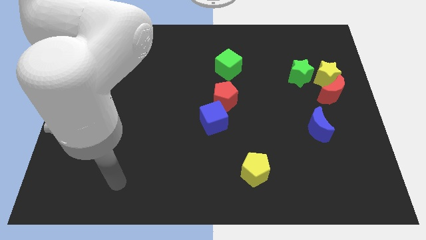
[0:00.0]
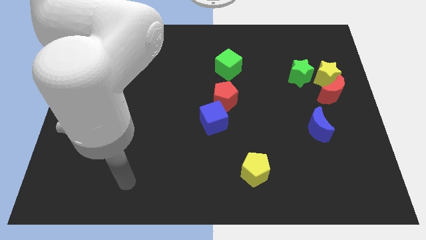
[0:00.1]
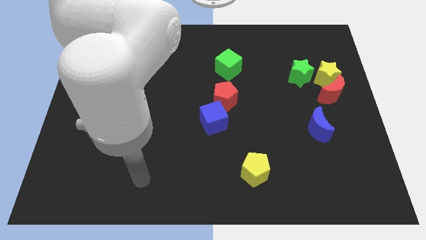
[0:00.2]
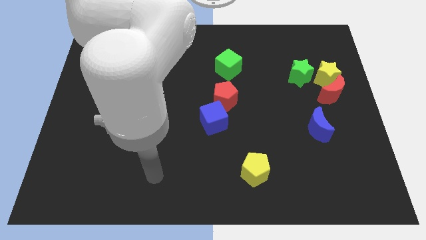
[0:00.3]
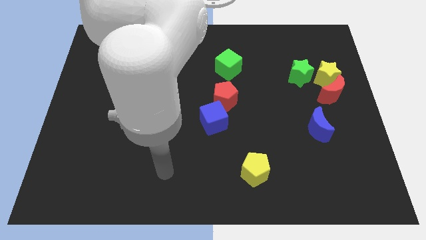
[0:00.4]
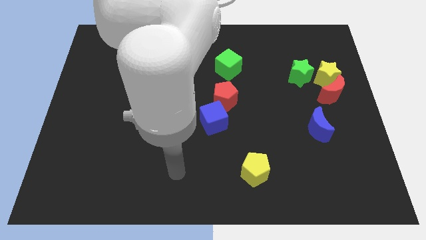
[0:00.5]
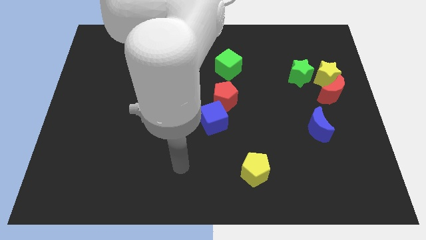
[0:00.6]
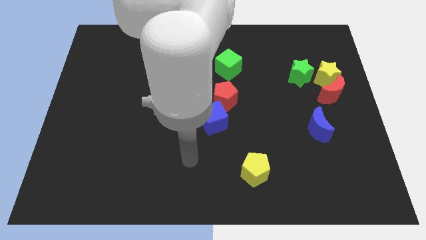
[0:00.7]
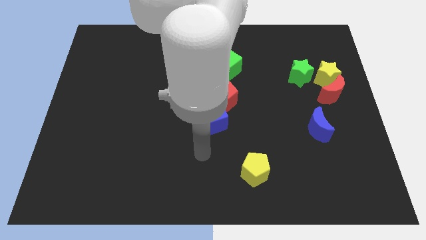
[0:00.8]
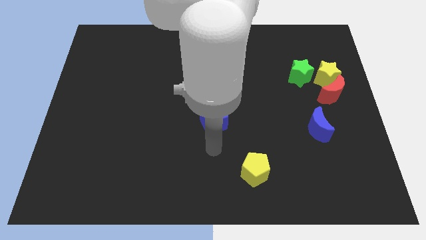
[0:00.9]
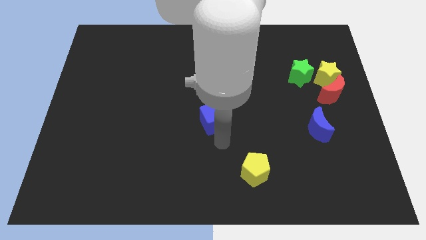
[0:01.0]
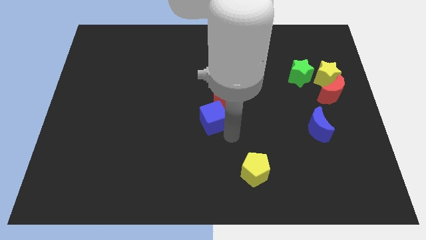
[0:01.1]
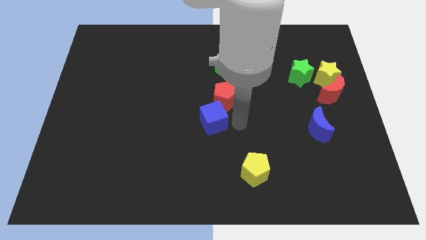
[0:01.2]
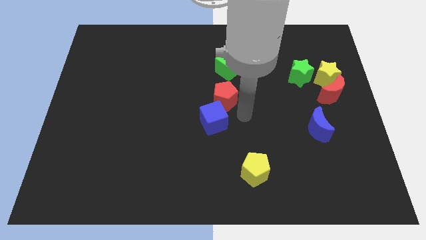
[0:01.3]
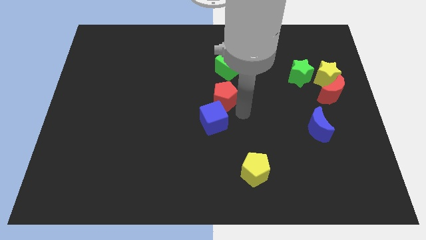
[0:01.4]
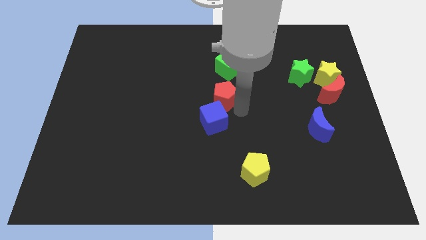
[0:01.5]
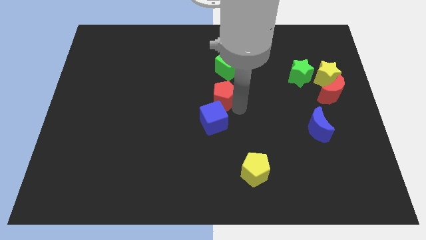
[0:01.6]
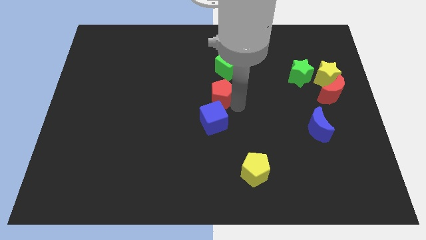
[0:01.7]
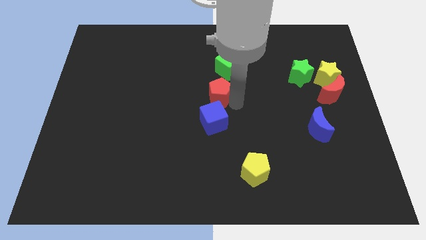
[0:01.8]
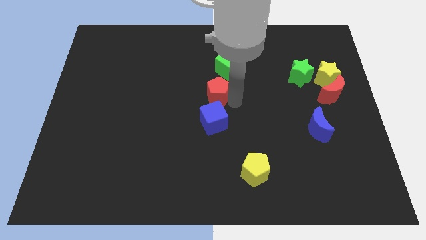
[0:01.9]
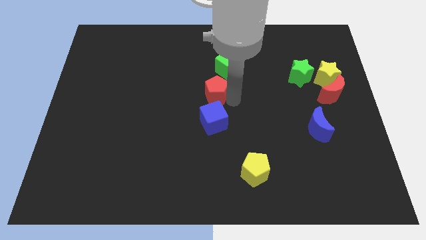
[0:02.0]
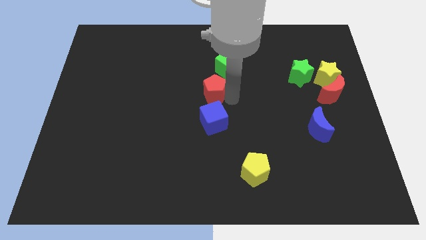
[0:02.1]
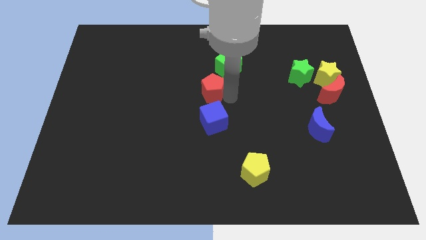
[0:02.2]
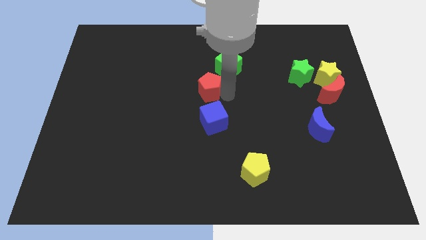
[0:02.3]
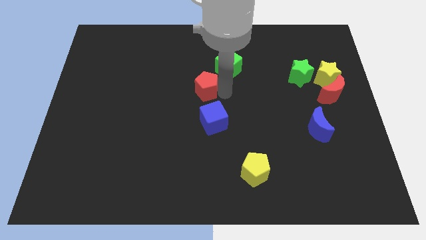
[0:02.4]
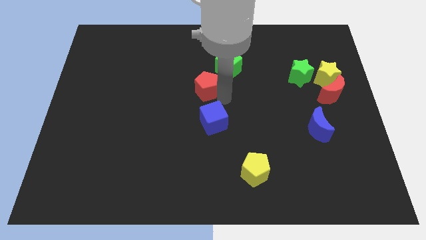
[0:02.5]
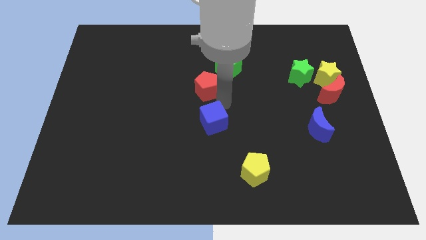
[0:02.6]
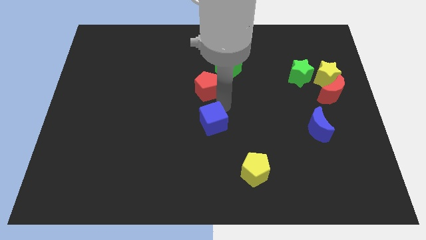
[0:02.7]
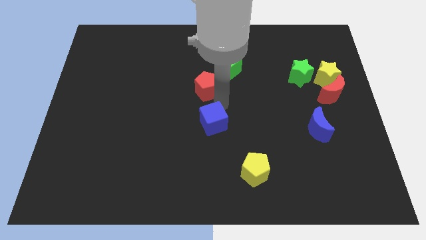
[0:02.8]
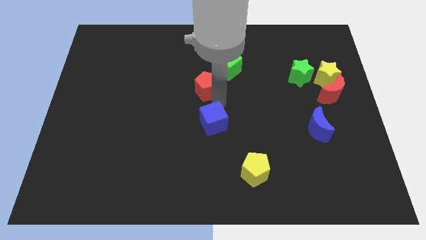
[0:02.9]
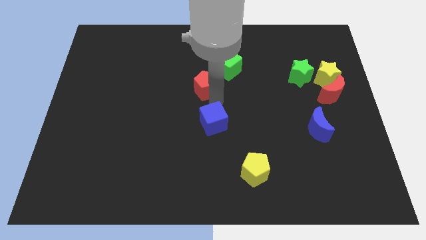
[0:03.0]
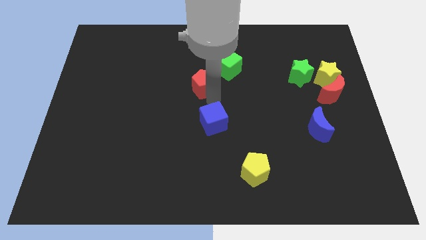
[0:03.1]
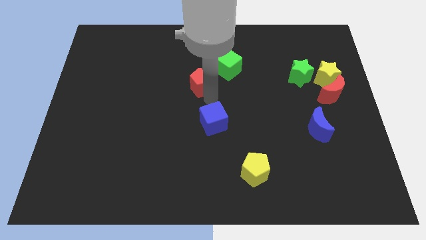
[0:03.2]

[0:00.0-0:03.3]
slide the red pentagon up and left a little

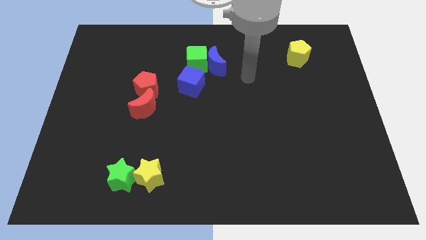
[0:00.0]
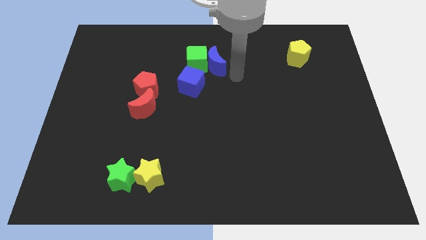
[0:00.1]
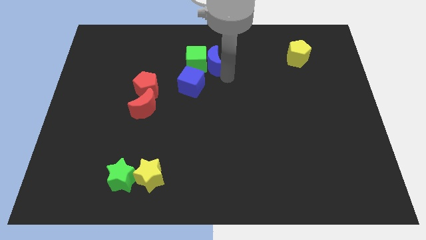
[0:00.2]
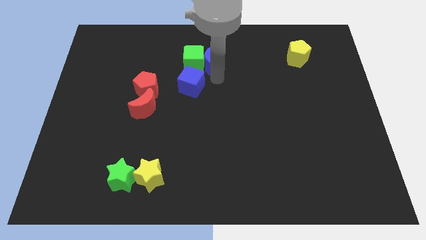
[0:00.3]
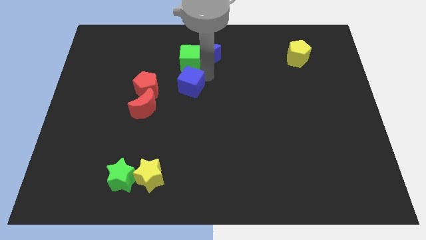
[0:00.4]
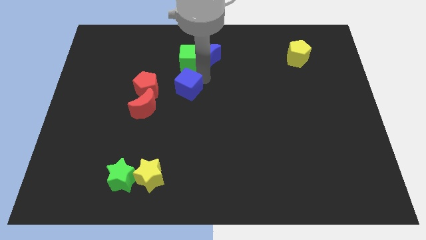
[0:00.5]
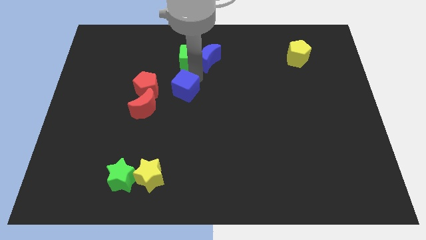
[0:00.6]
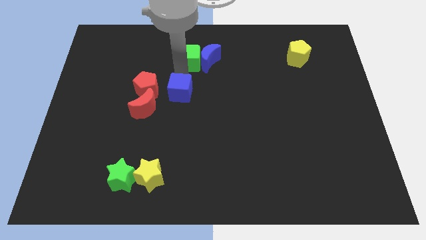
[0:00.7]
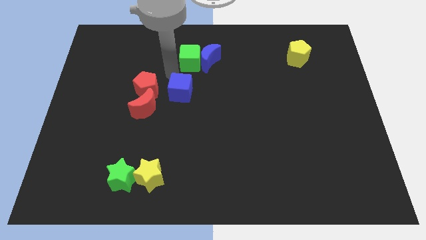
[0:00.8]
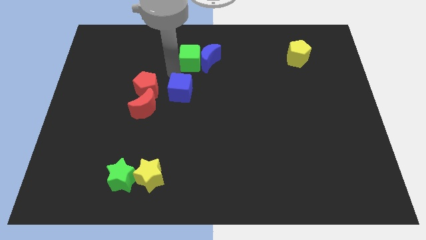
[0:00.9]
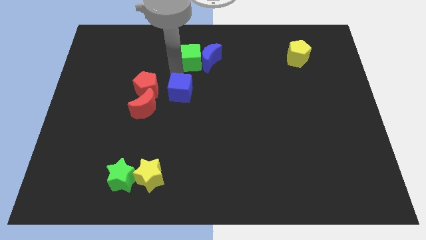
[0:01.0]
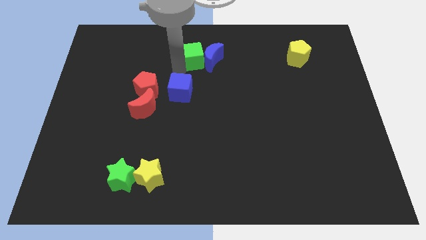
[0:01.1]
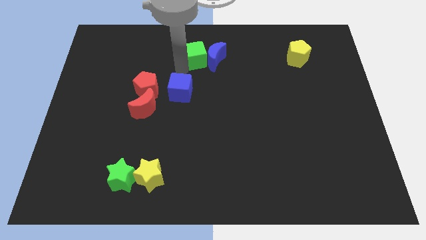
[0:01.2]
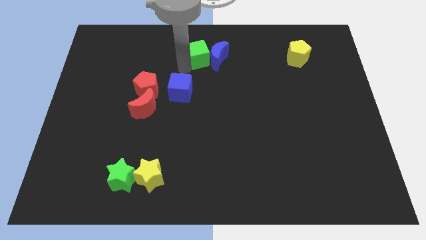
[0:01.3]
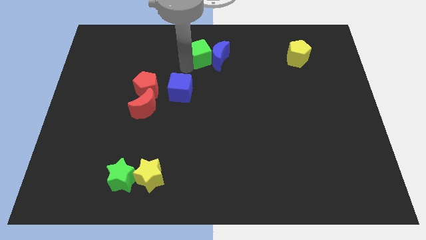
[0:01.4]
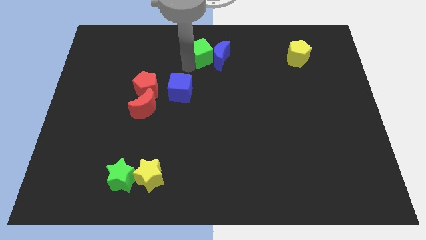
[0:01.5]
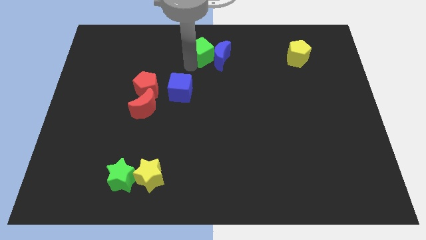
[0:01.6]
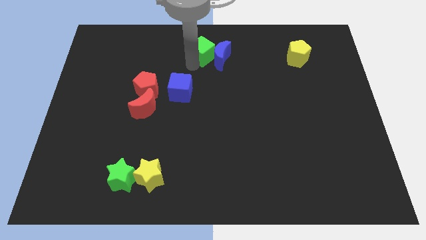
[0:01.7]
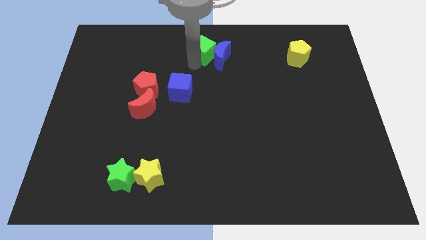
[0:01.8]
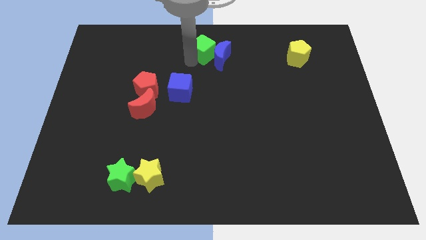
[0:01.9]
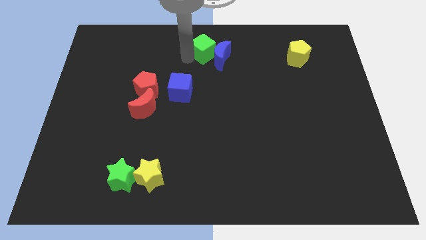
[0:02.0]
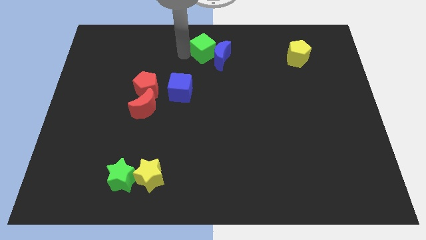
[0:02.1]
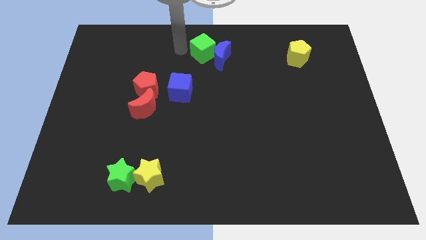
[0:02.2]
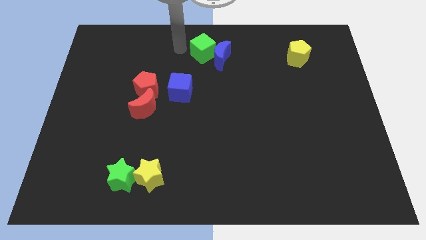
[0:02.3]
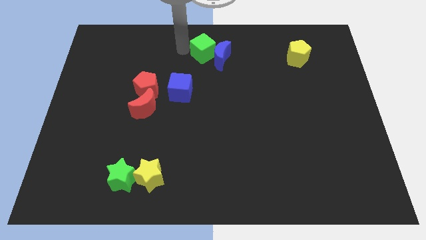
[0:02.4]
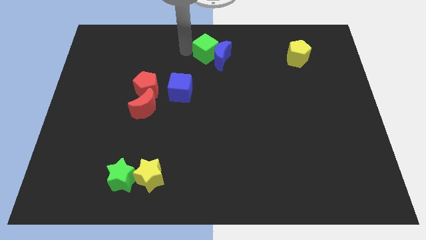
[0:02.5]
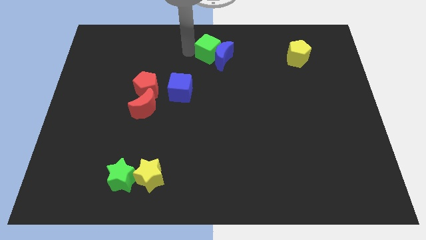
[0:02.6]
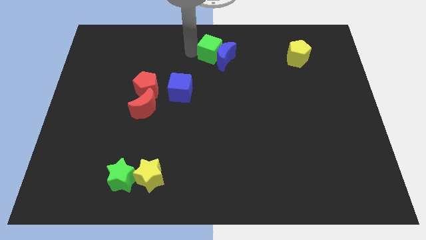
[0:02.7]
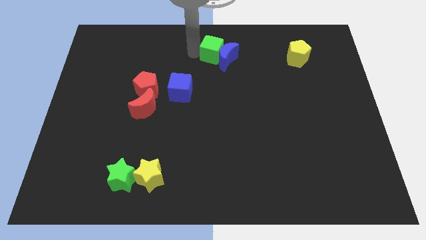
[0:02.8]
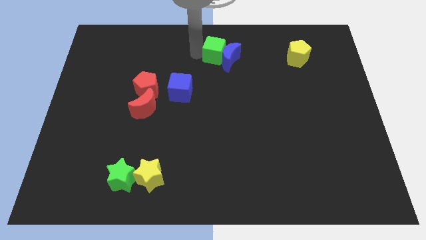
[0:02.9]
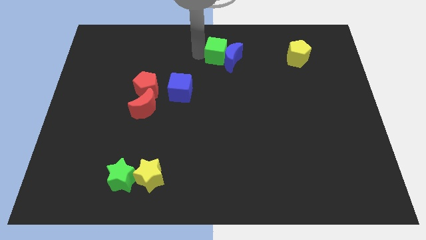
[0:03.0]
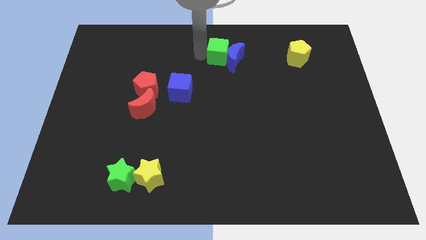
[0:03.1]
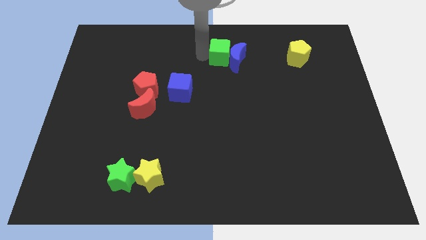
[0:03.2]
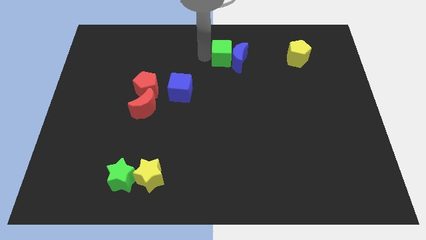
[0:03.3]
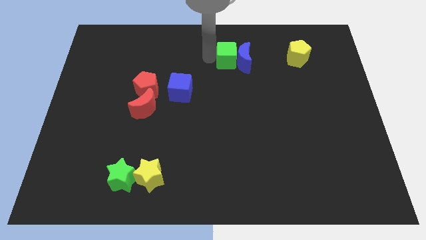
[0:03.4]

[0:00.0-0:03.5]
move the green cube a bit to the right

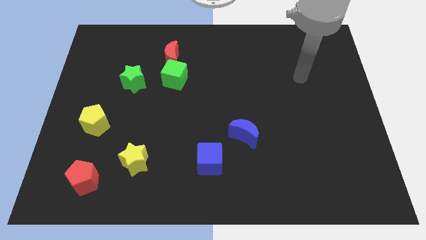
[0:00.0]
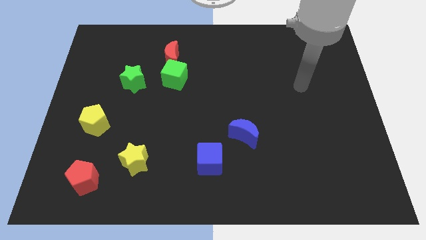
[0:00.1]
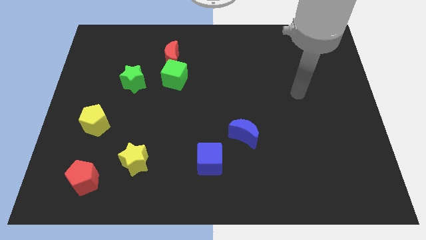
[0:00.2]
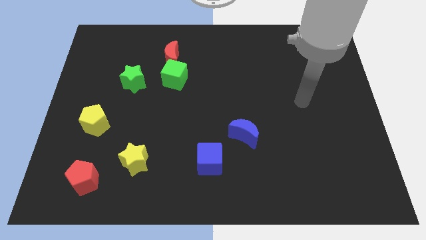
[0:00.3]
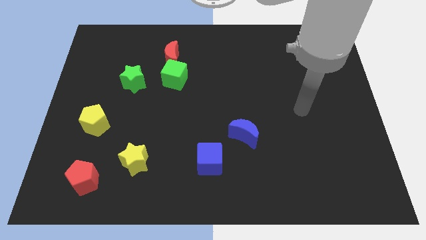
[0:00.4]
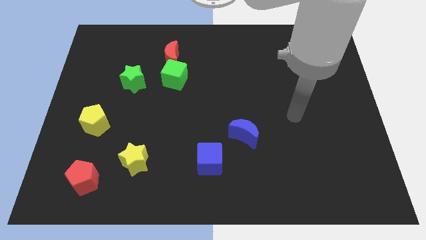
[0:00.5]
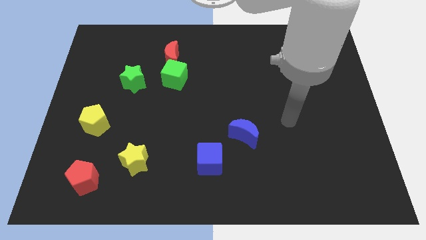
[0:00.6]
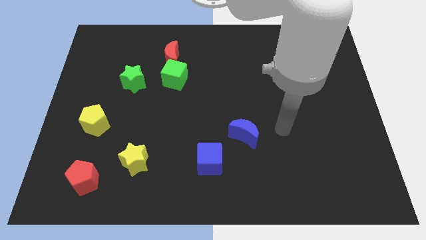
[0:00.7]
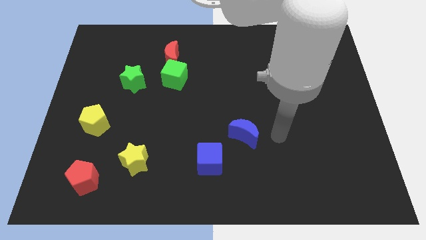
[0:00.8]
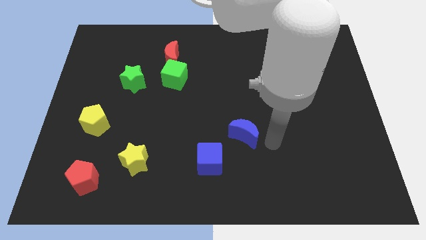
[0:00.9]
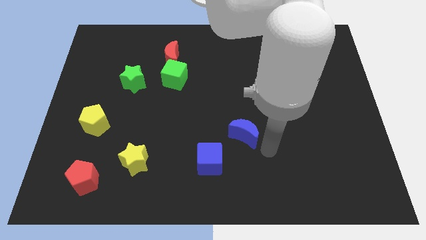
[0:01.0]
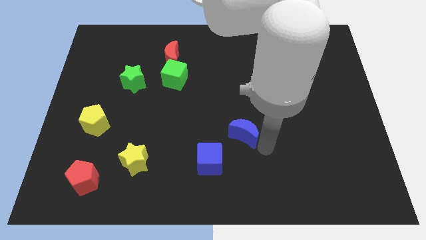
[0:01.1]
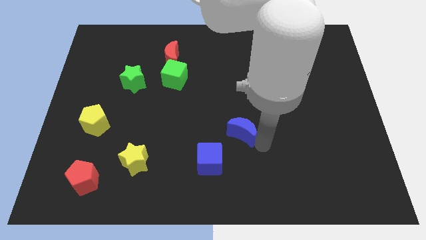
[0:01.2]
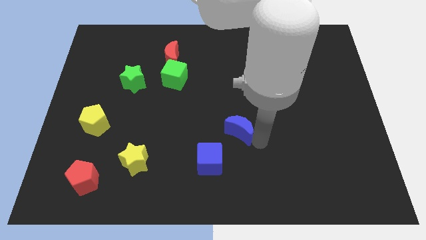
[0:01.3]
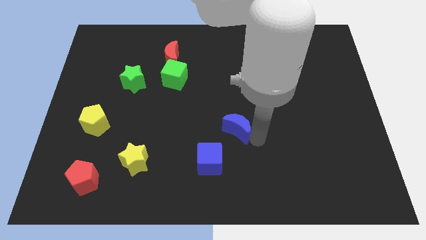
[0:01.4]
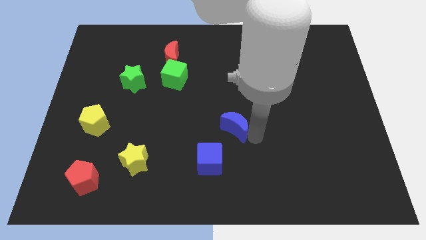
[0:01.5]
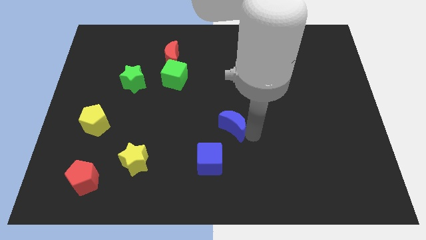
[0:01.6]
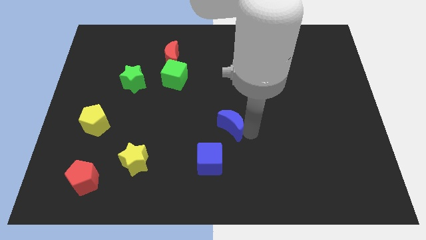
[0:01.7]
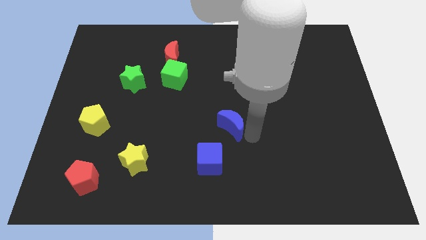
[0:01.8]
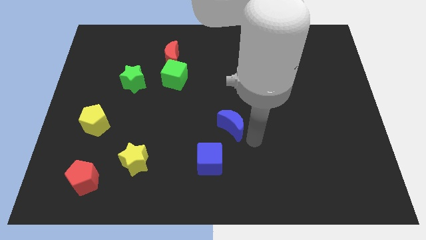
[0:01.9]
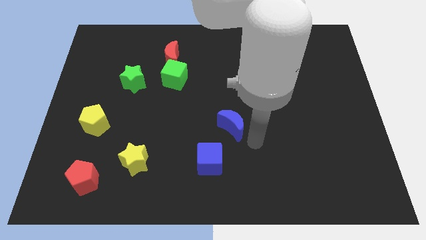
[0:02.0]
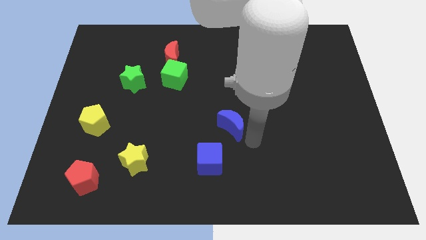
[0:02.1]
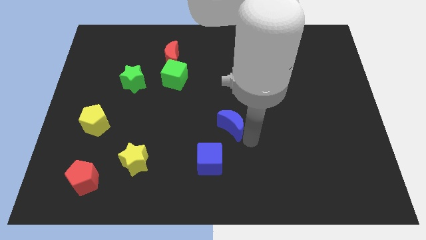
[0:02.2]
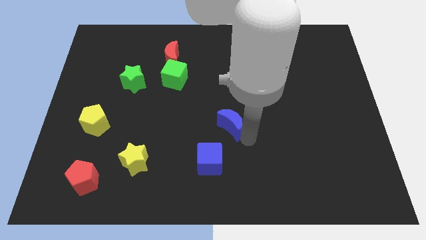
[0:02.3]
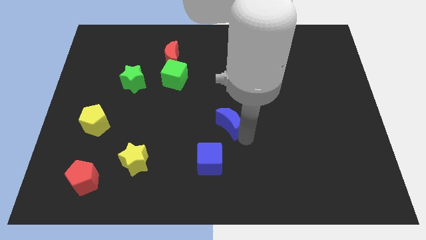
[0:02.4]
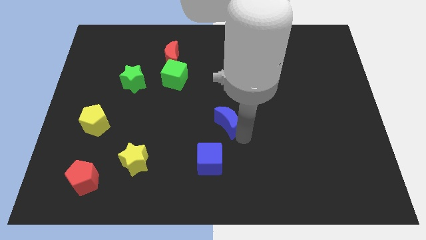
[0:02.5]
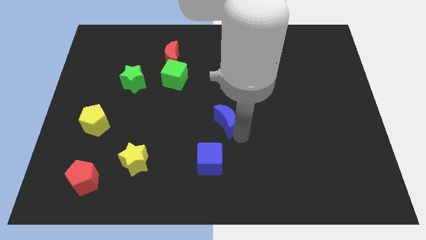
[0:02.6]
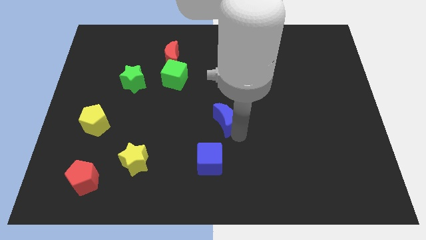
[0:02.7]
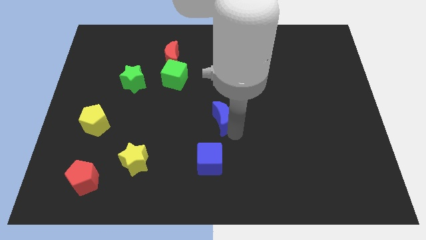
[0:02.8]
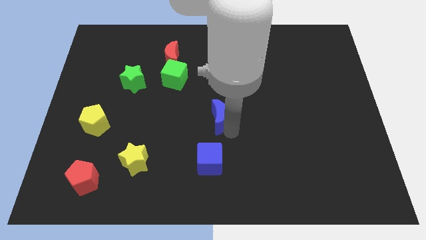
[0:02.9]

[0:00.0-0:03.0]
move the blue moon up and left diagonally a little
